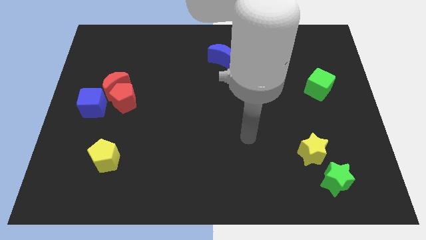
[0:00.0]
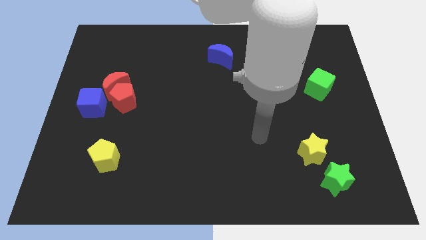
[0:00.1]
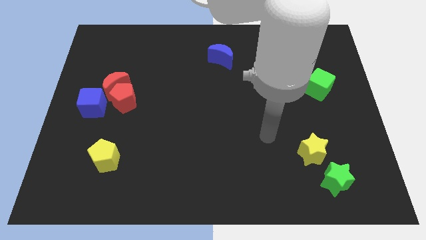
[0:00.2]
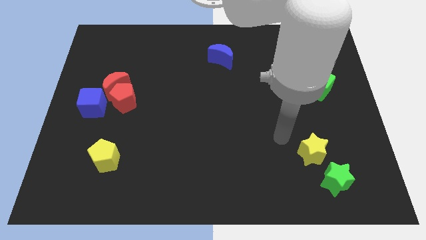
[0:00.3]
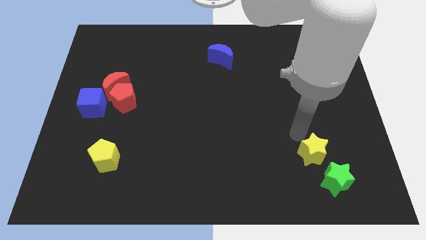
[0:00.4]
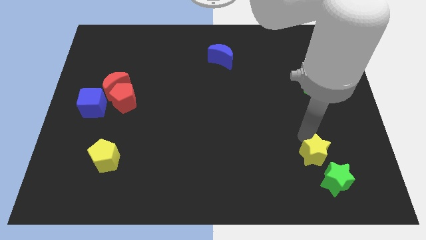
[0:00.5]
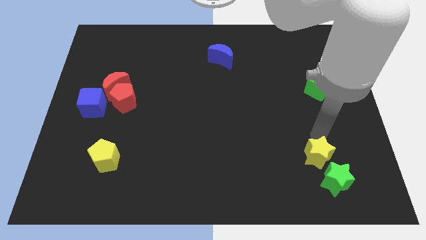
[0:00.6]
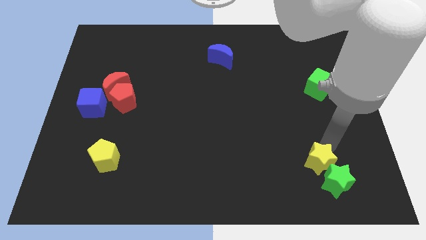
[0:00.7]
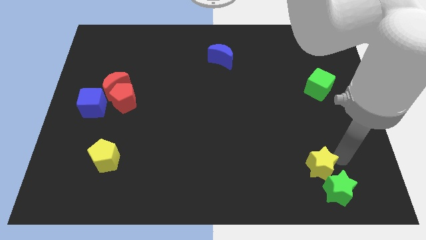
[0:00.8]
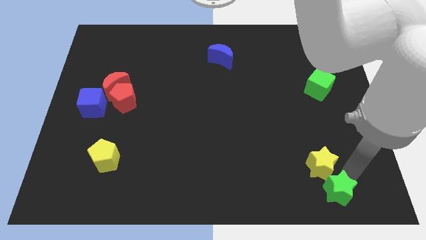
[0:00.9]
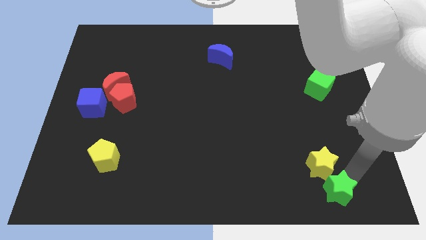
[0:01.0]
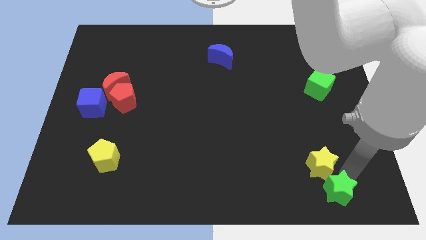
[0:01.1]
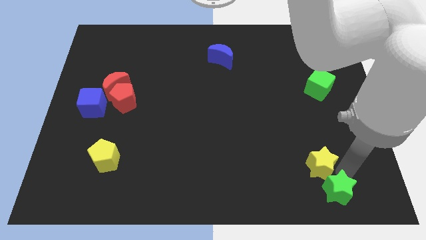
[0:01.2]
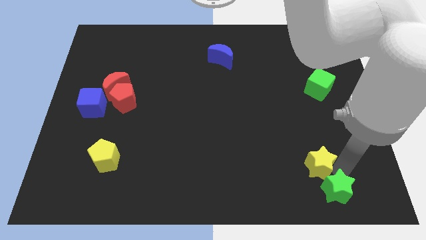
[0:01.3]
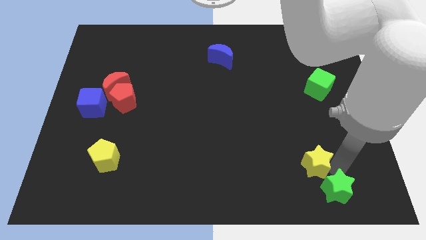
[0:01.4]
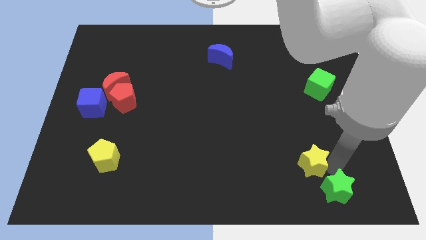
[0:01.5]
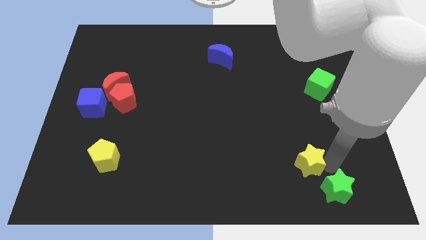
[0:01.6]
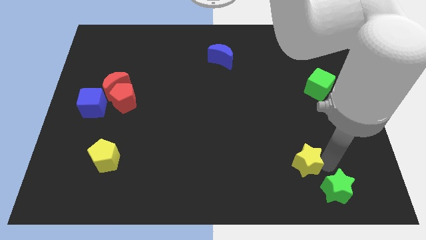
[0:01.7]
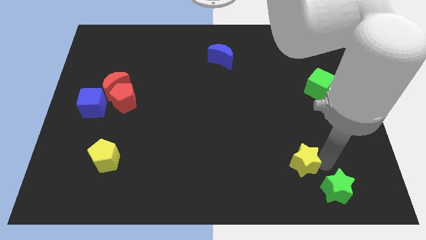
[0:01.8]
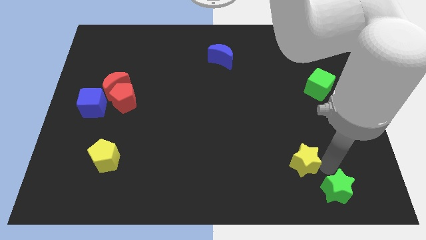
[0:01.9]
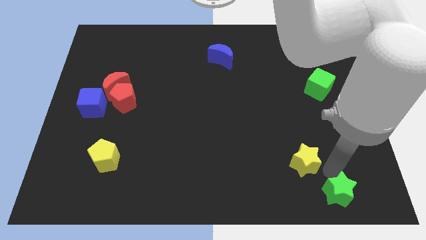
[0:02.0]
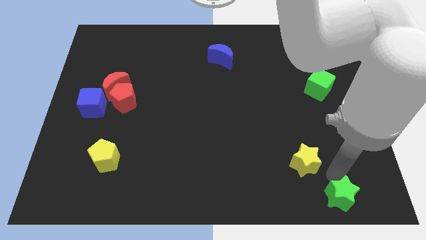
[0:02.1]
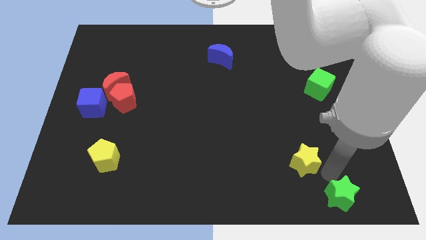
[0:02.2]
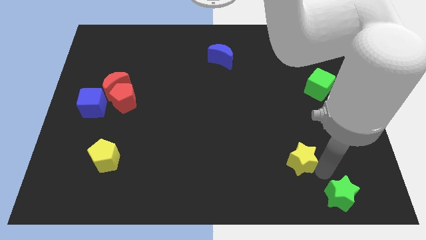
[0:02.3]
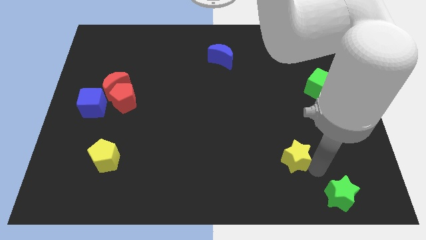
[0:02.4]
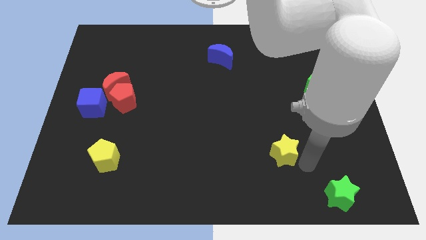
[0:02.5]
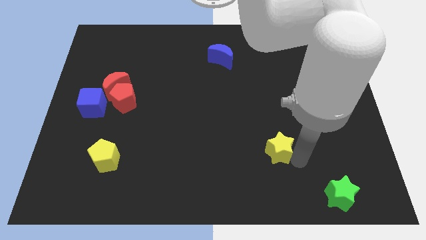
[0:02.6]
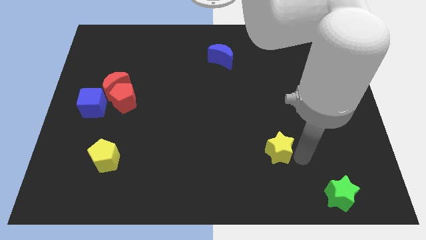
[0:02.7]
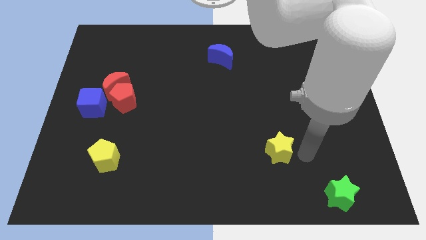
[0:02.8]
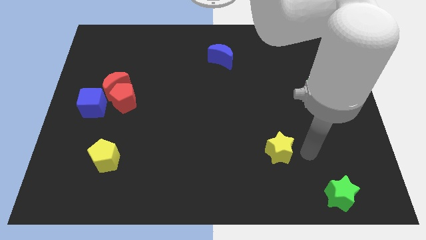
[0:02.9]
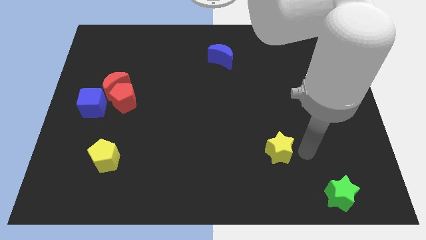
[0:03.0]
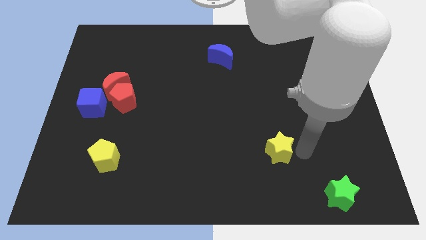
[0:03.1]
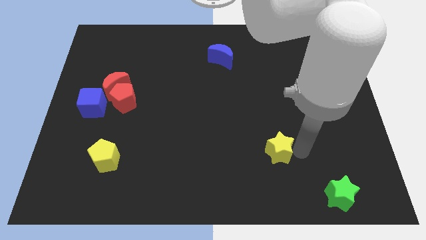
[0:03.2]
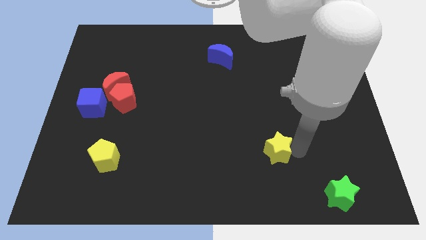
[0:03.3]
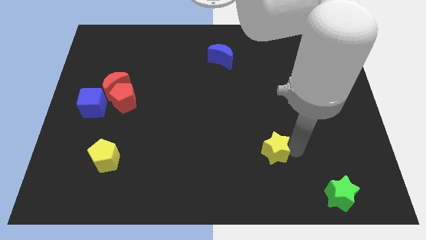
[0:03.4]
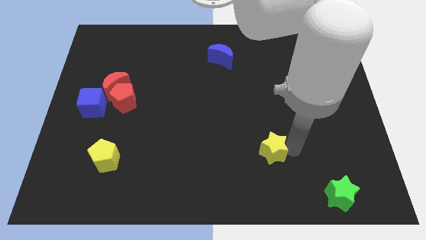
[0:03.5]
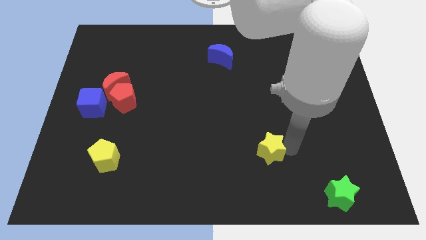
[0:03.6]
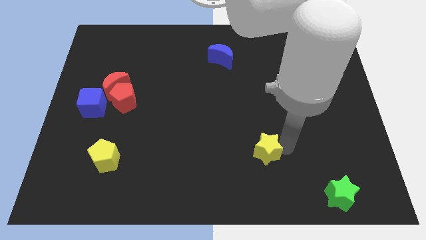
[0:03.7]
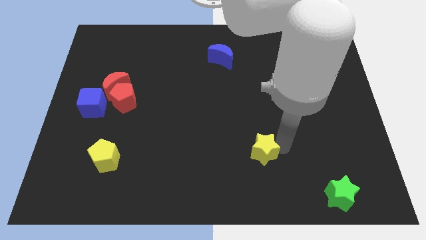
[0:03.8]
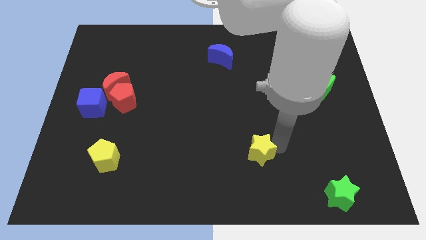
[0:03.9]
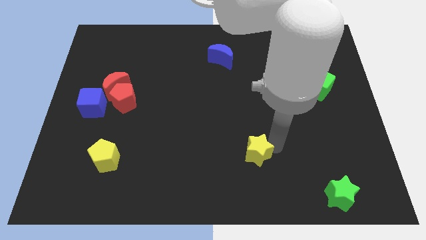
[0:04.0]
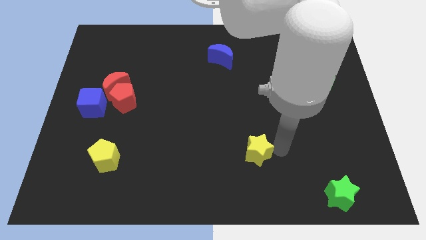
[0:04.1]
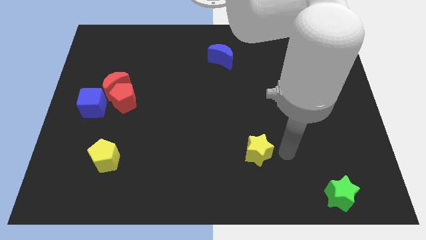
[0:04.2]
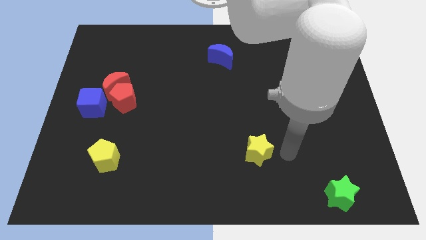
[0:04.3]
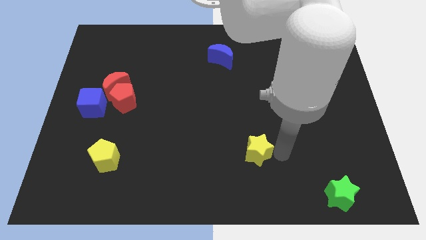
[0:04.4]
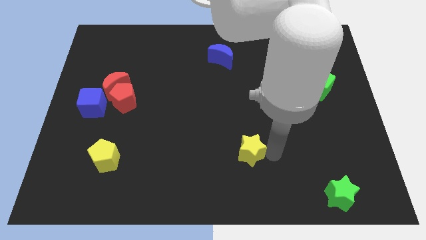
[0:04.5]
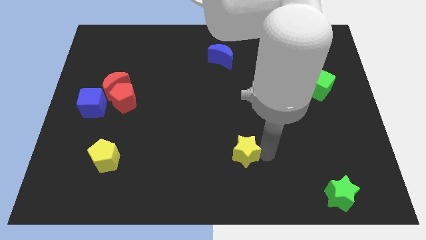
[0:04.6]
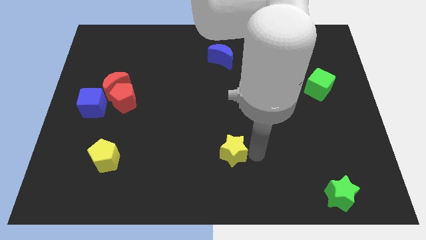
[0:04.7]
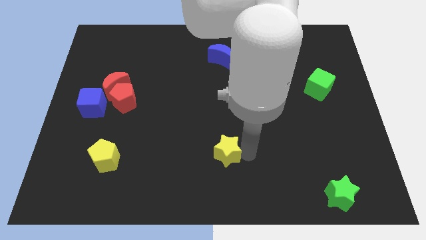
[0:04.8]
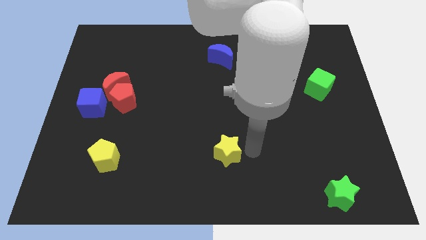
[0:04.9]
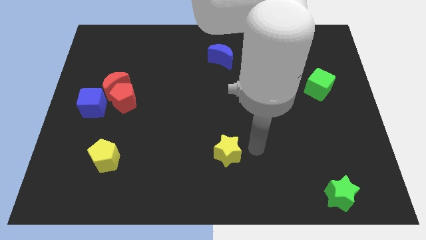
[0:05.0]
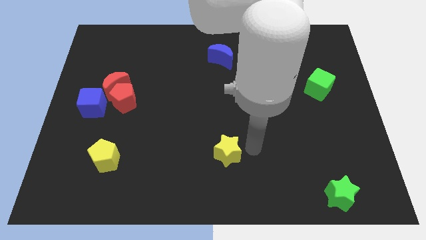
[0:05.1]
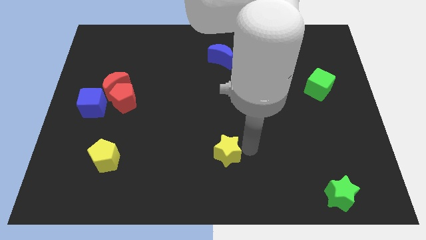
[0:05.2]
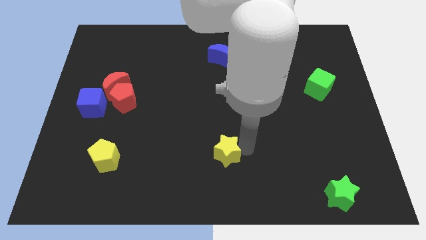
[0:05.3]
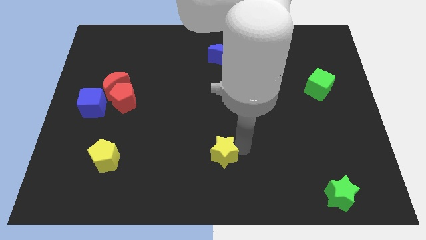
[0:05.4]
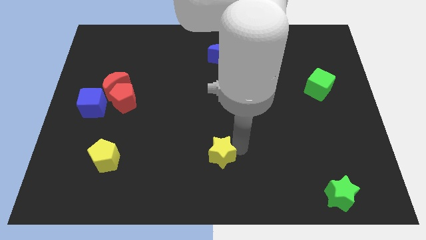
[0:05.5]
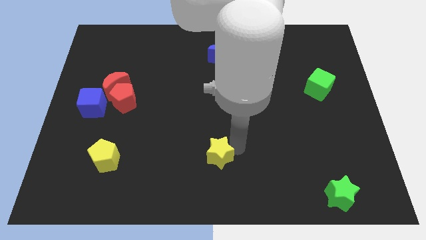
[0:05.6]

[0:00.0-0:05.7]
move the yellow star to the left

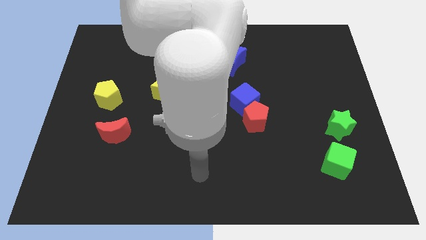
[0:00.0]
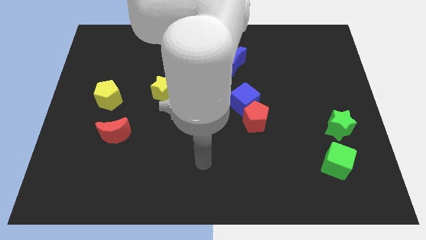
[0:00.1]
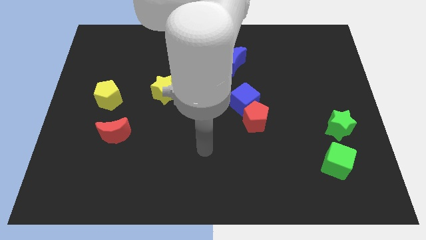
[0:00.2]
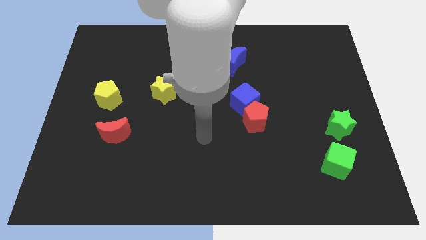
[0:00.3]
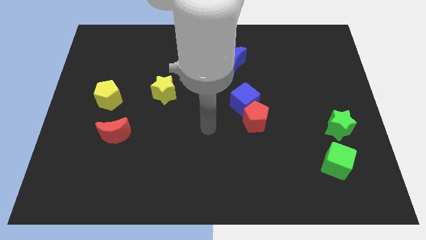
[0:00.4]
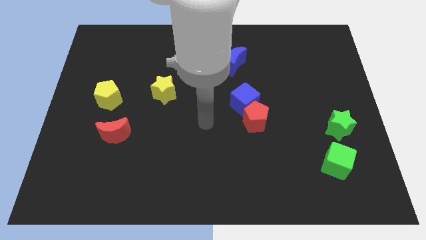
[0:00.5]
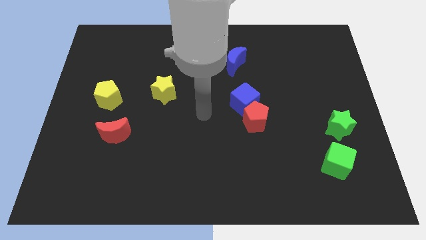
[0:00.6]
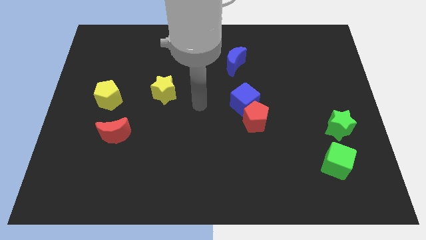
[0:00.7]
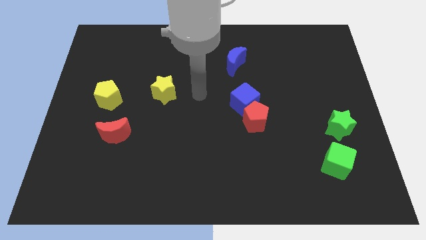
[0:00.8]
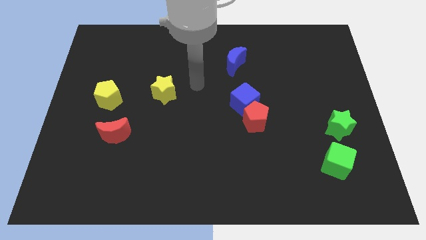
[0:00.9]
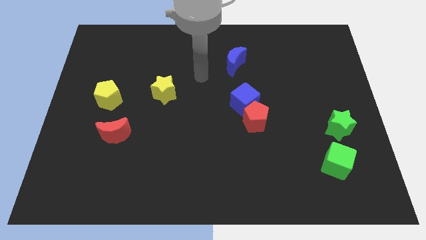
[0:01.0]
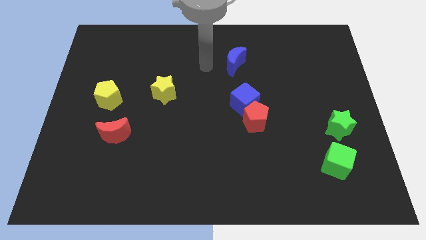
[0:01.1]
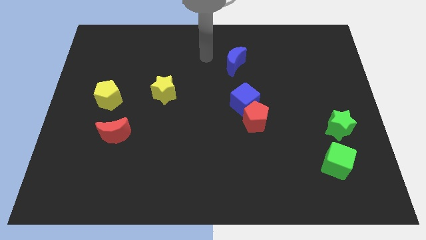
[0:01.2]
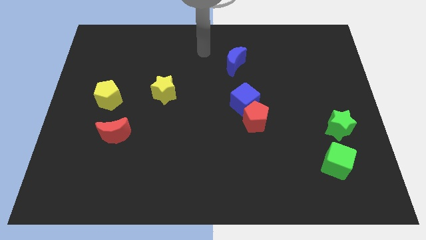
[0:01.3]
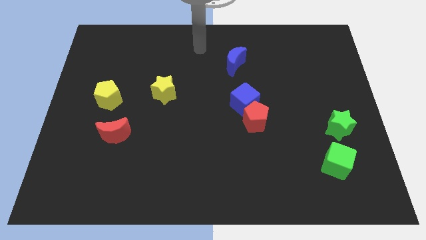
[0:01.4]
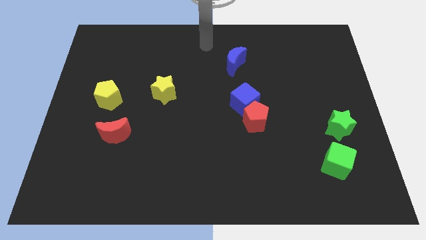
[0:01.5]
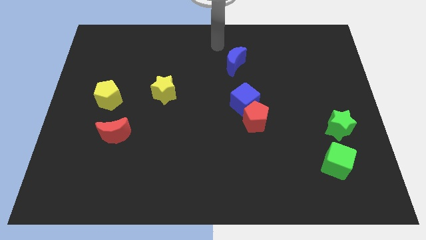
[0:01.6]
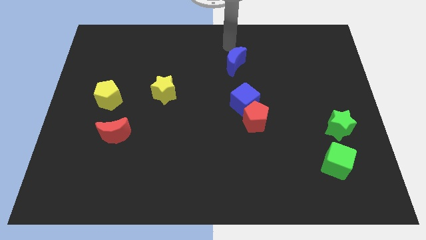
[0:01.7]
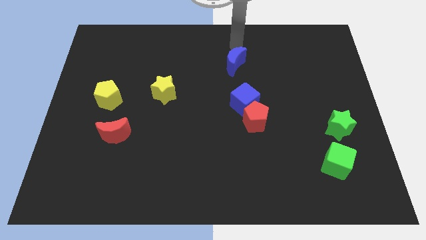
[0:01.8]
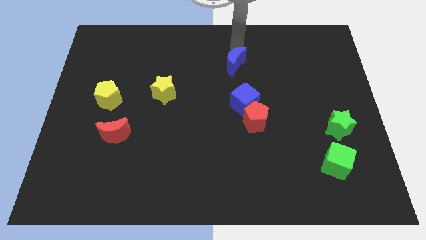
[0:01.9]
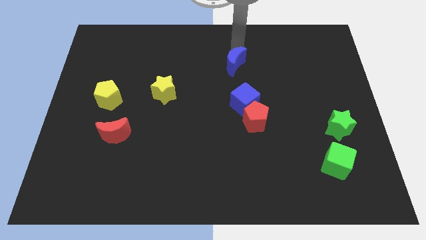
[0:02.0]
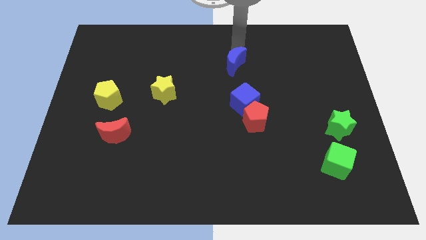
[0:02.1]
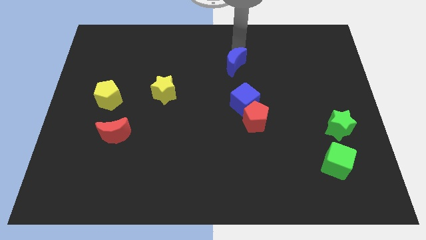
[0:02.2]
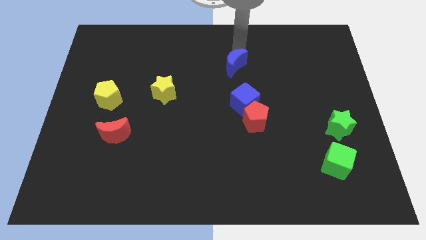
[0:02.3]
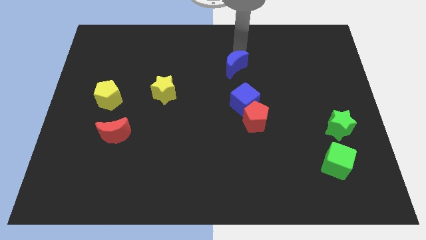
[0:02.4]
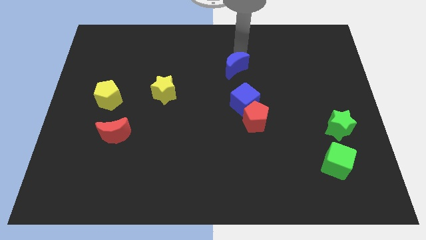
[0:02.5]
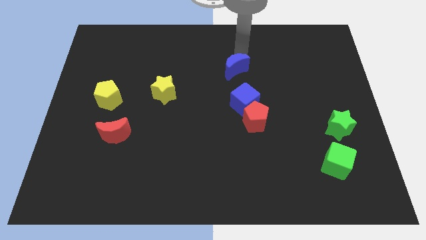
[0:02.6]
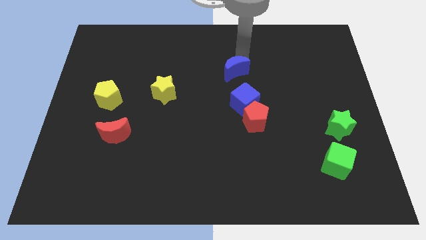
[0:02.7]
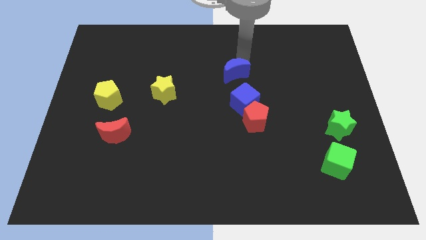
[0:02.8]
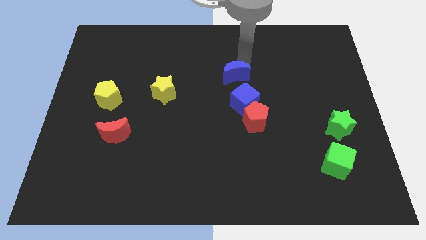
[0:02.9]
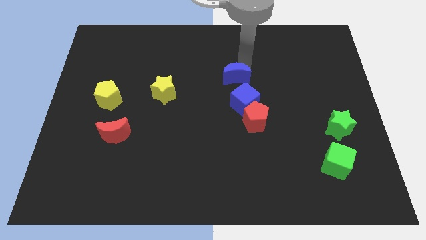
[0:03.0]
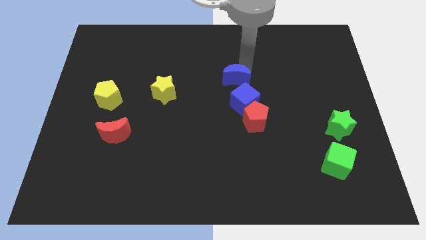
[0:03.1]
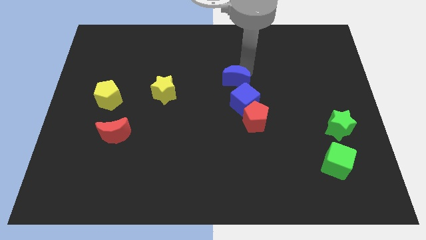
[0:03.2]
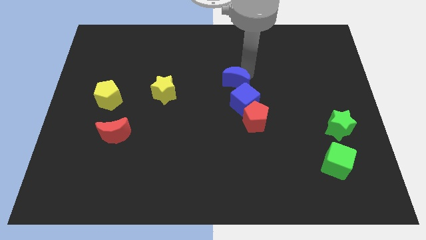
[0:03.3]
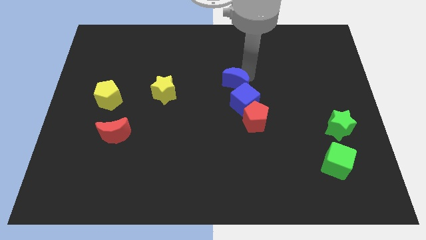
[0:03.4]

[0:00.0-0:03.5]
push the blue moon a bit down
